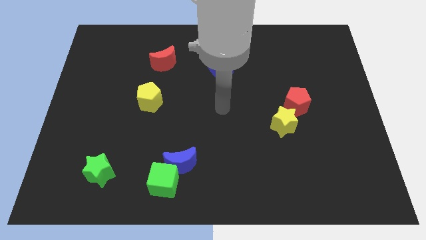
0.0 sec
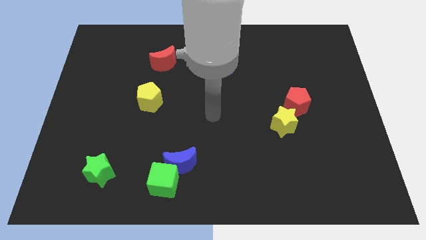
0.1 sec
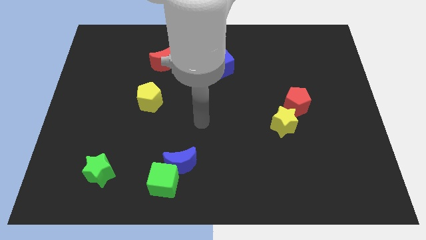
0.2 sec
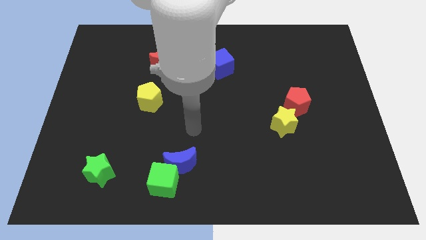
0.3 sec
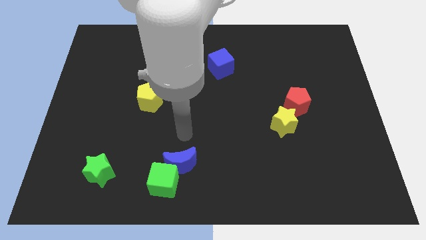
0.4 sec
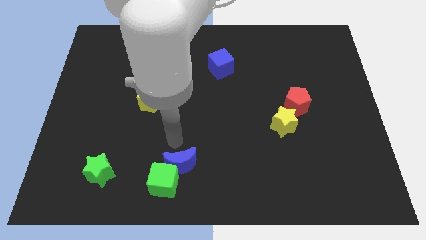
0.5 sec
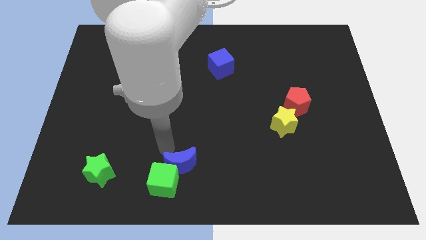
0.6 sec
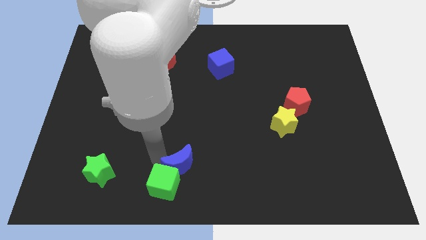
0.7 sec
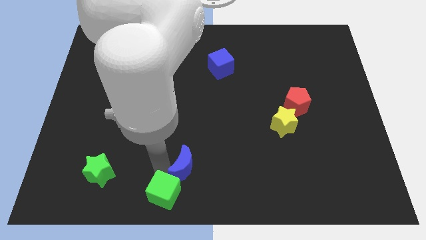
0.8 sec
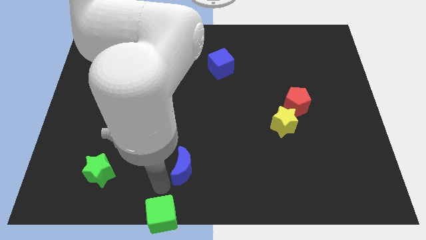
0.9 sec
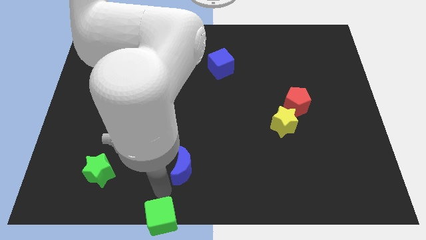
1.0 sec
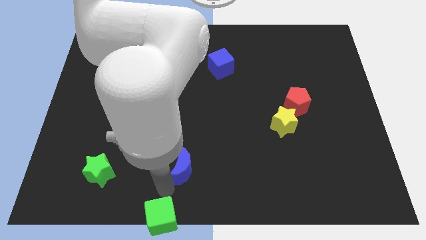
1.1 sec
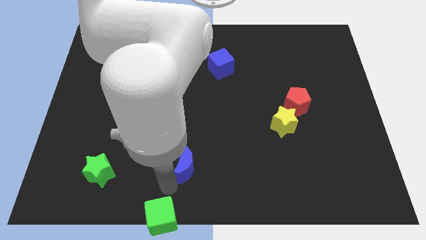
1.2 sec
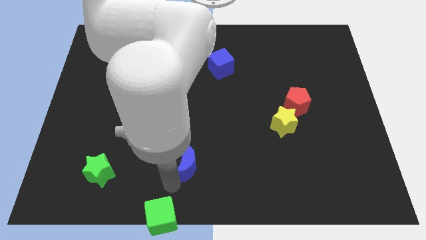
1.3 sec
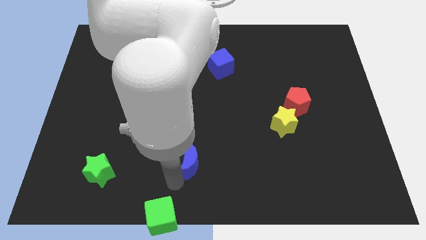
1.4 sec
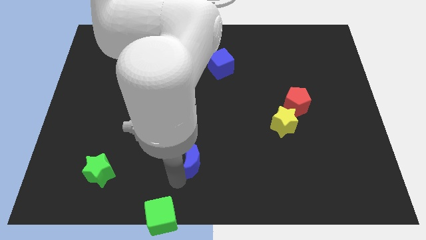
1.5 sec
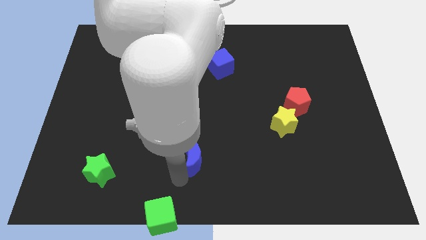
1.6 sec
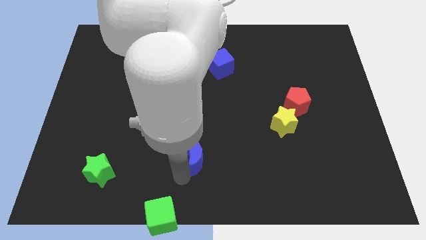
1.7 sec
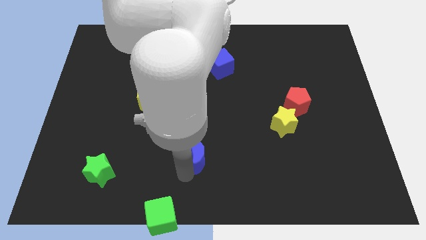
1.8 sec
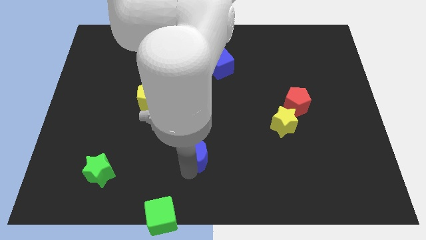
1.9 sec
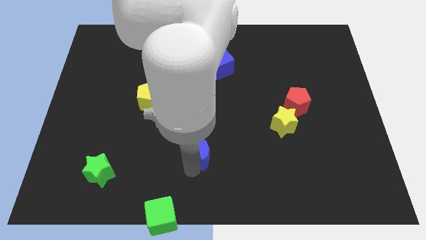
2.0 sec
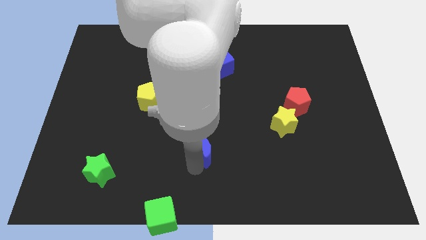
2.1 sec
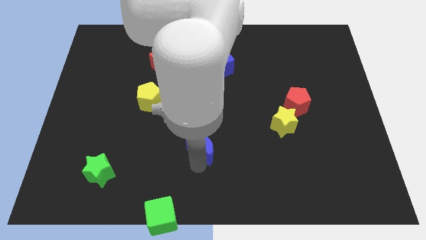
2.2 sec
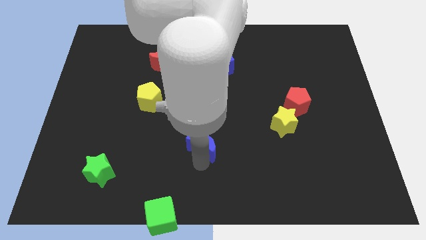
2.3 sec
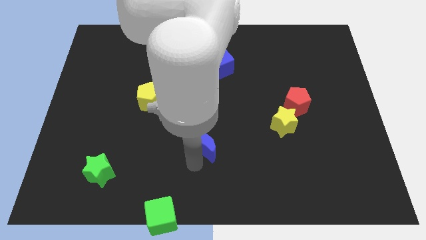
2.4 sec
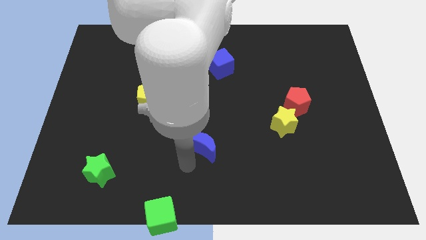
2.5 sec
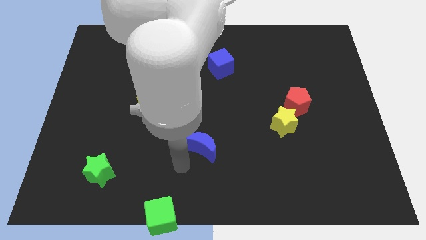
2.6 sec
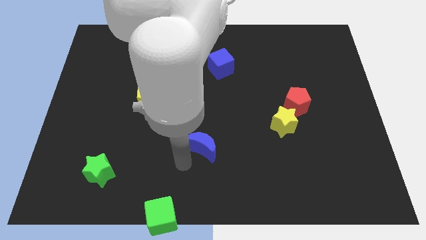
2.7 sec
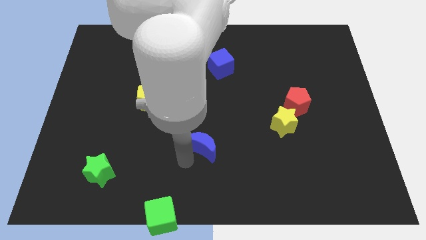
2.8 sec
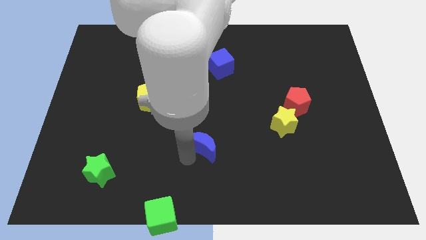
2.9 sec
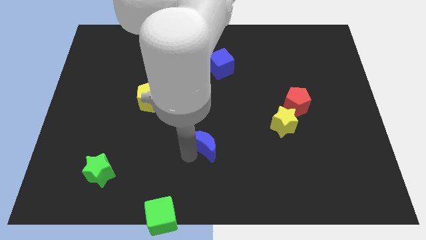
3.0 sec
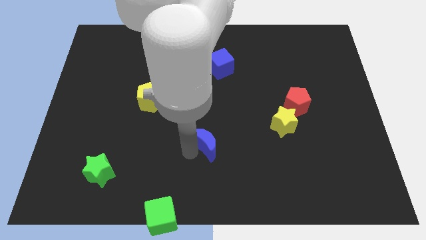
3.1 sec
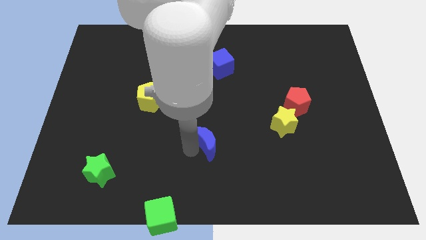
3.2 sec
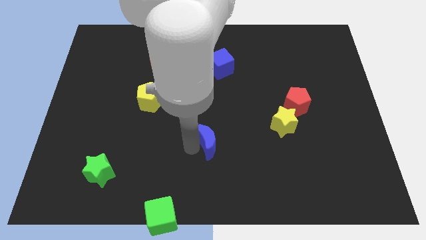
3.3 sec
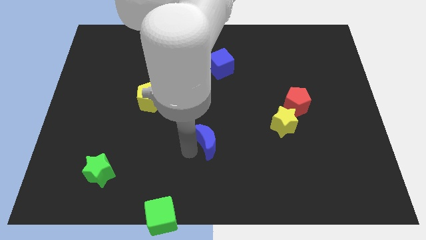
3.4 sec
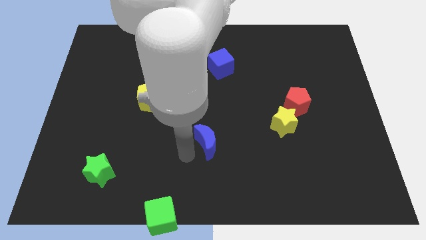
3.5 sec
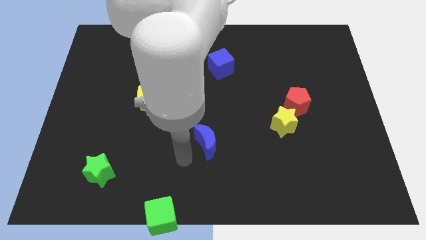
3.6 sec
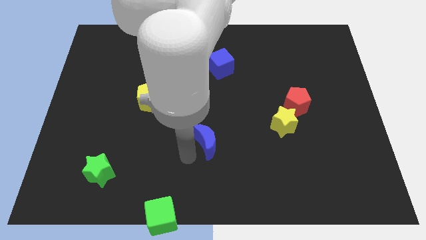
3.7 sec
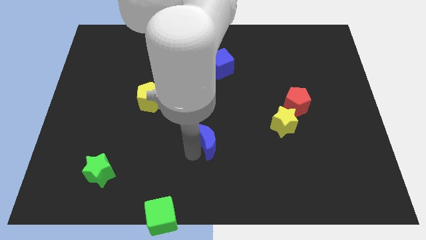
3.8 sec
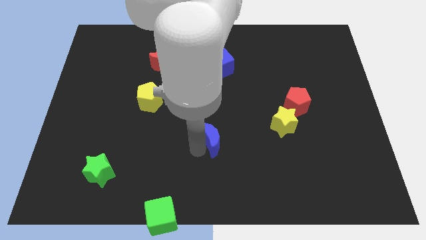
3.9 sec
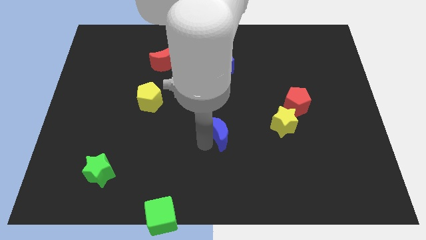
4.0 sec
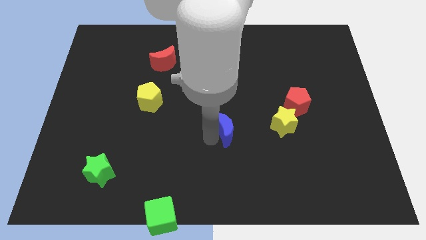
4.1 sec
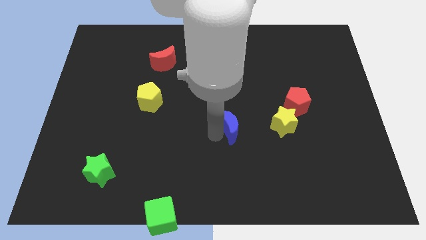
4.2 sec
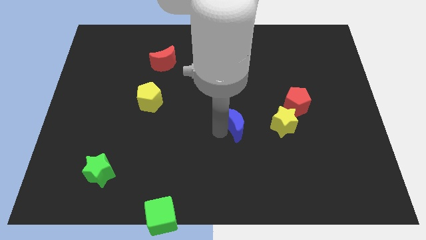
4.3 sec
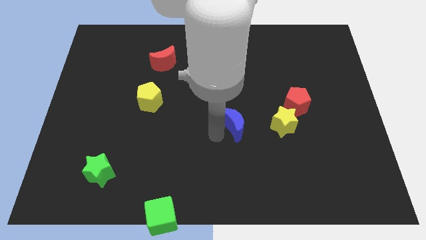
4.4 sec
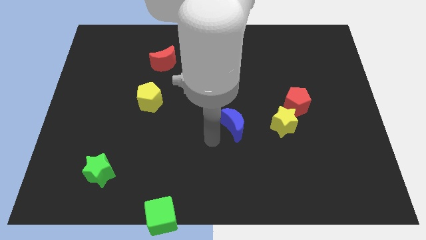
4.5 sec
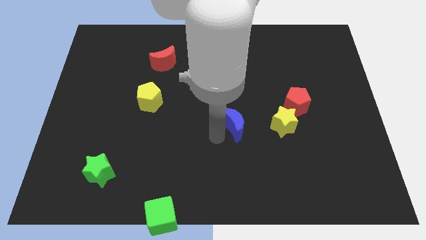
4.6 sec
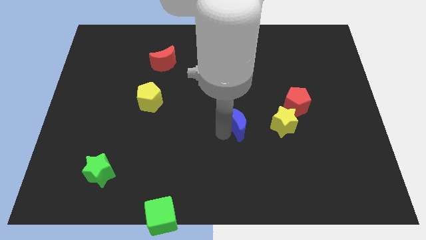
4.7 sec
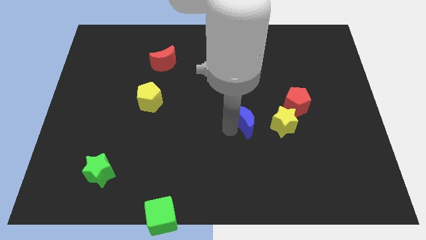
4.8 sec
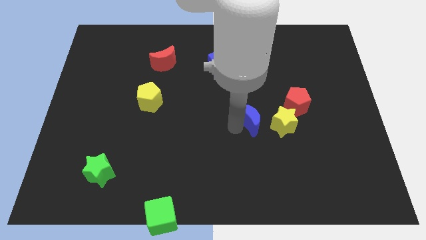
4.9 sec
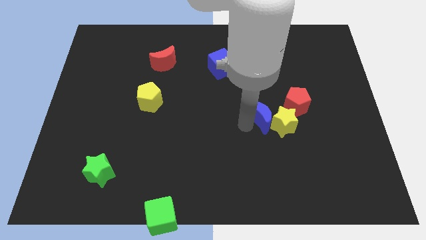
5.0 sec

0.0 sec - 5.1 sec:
move the blue moon up and to the right

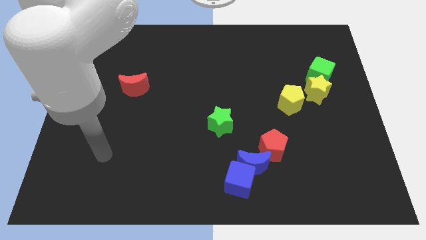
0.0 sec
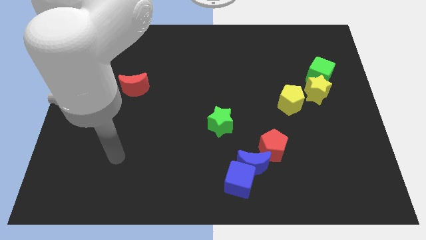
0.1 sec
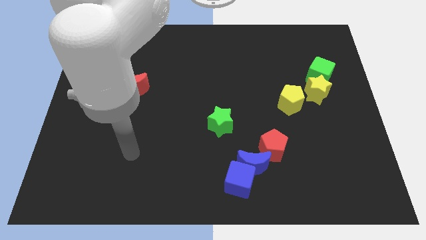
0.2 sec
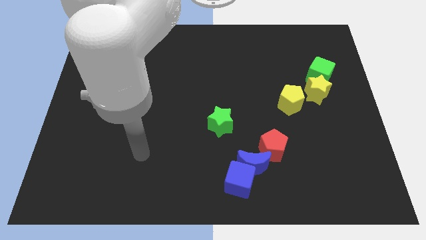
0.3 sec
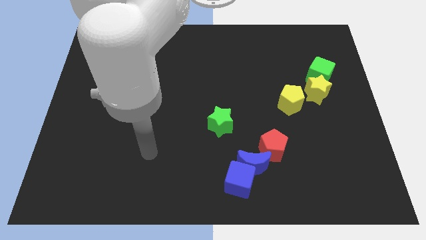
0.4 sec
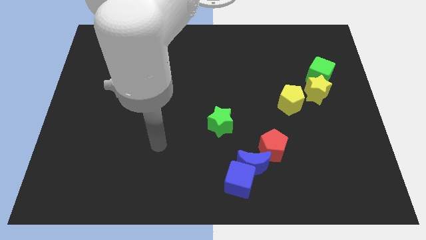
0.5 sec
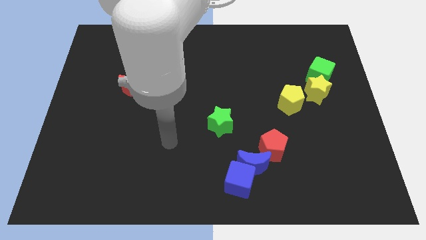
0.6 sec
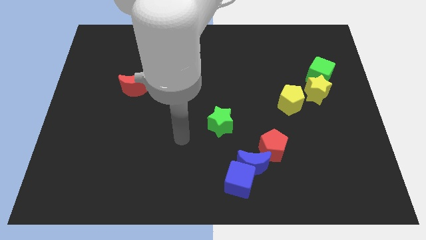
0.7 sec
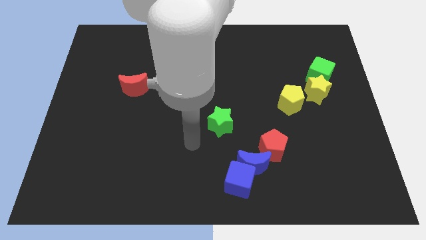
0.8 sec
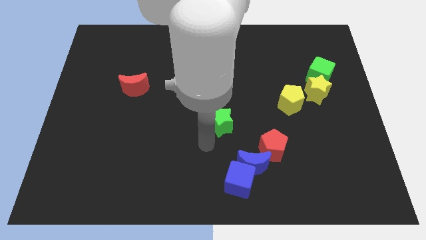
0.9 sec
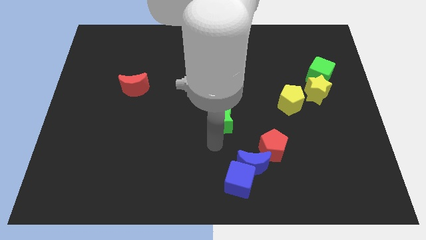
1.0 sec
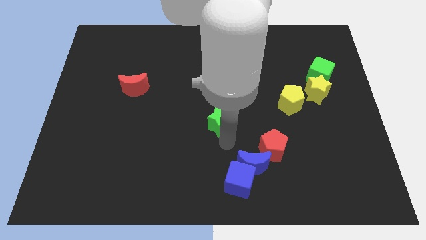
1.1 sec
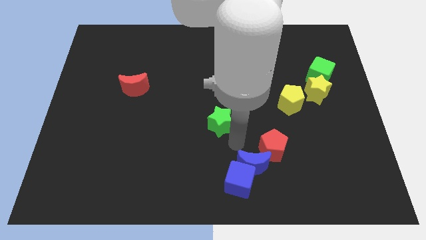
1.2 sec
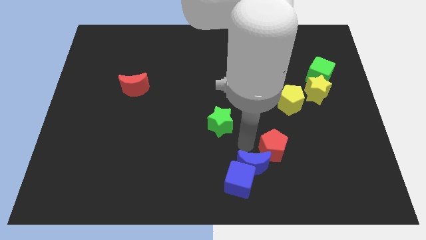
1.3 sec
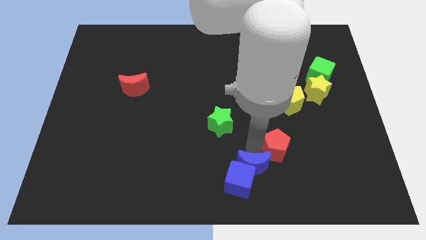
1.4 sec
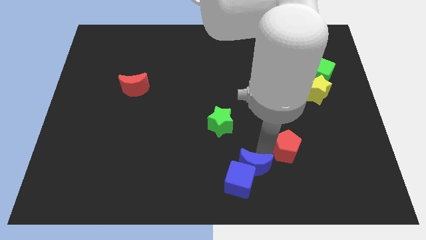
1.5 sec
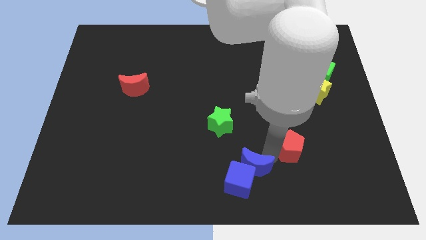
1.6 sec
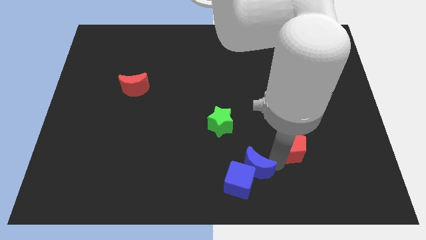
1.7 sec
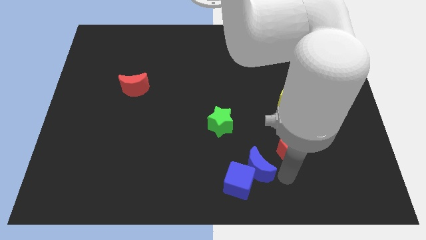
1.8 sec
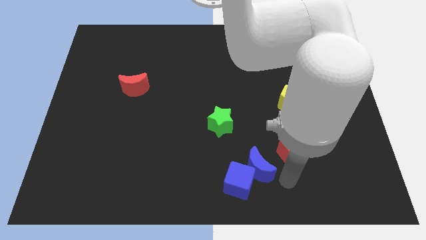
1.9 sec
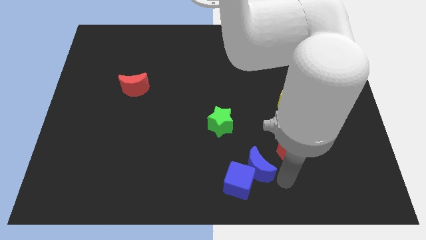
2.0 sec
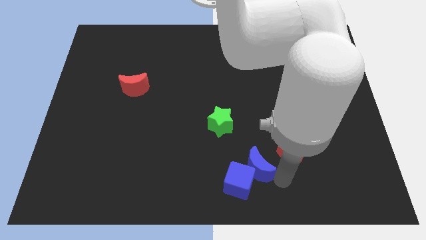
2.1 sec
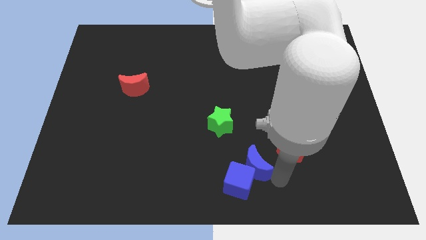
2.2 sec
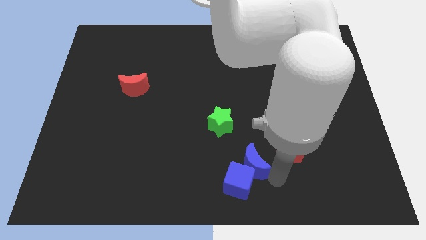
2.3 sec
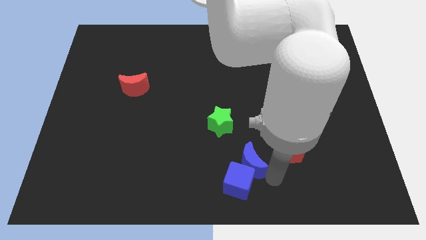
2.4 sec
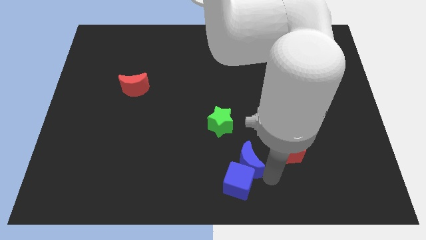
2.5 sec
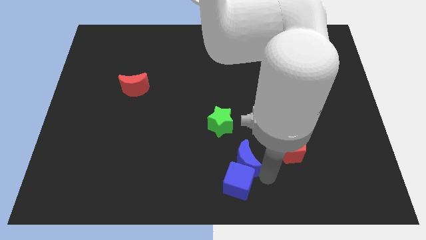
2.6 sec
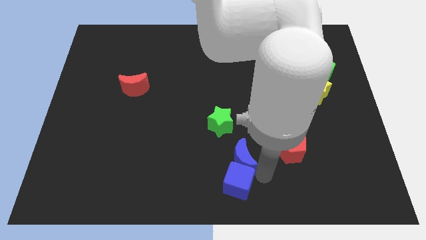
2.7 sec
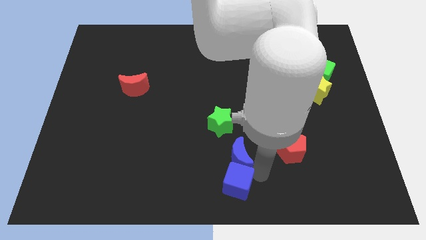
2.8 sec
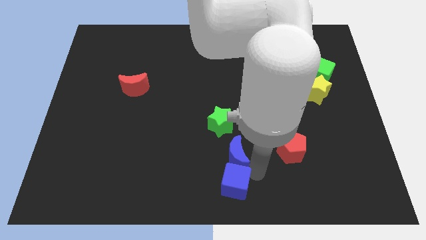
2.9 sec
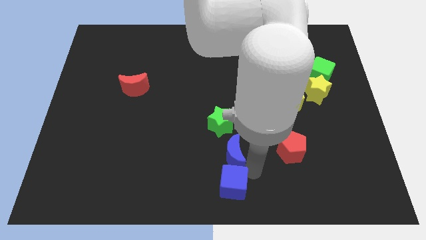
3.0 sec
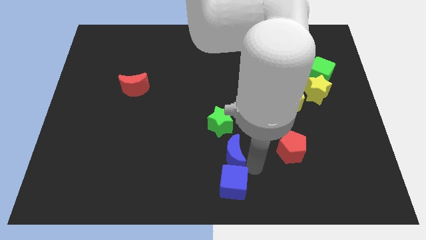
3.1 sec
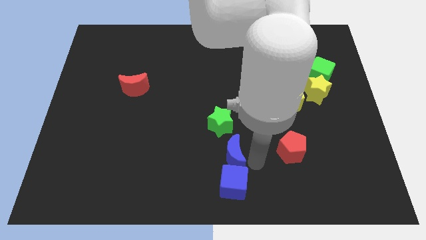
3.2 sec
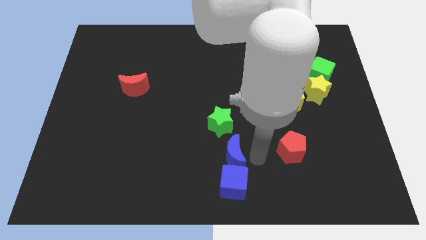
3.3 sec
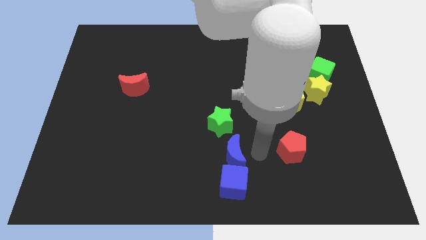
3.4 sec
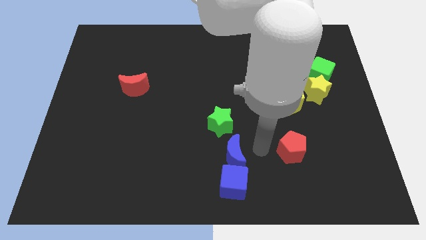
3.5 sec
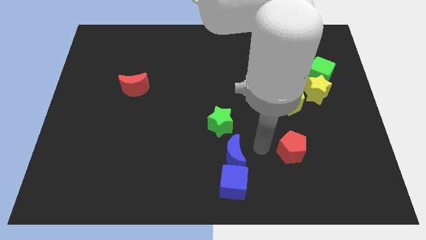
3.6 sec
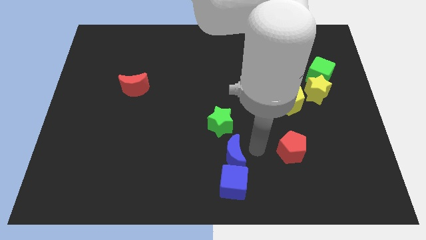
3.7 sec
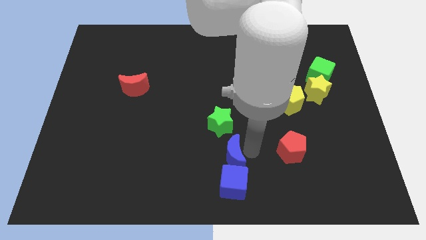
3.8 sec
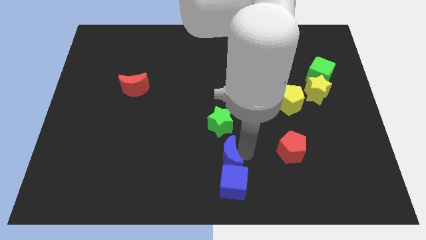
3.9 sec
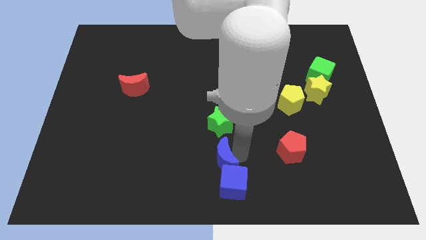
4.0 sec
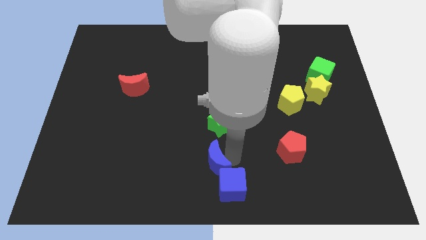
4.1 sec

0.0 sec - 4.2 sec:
slightly slide the blue moon left
